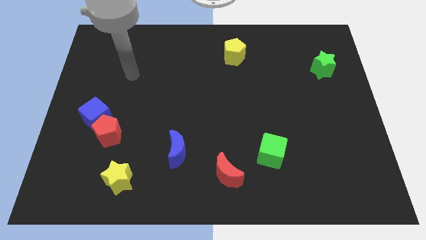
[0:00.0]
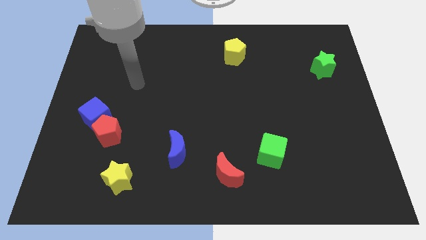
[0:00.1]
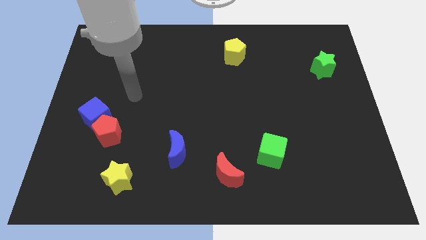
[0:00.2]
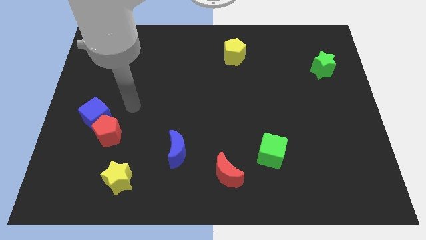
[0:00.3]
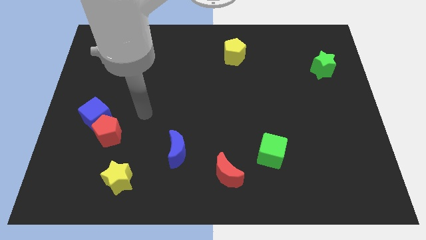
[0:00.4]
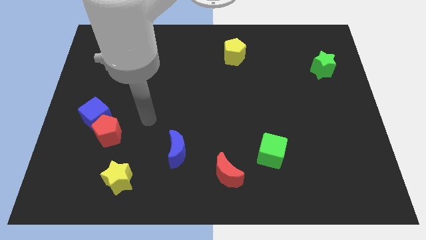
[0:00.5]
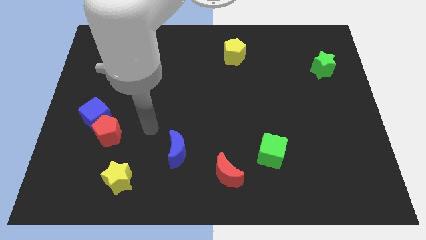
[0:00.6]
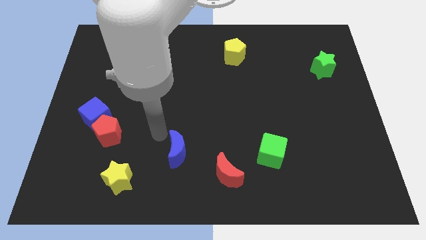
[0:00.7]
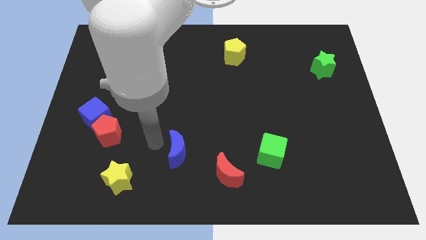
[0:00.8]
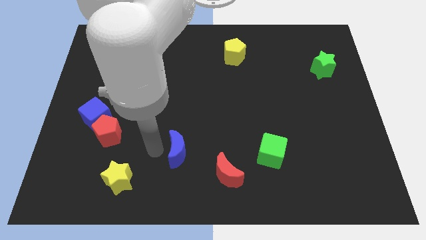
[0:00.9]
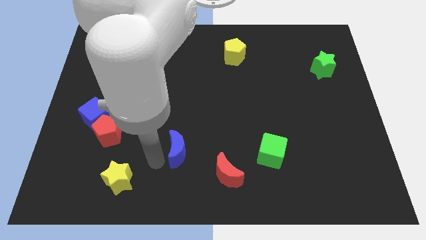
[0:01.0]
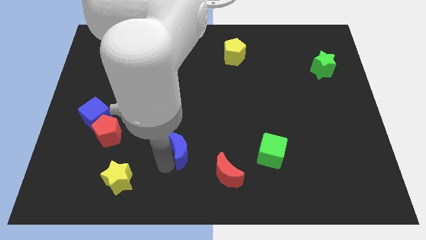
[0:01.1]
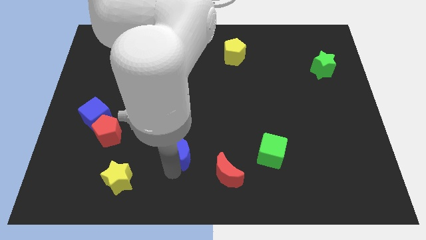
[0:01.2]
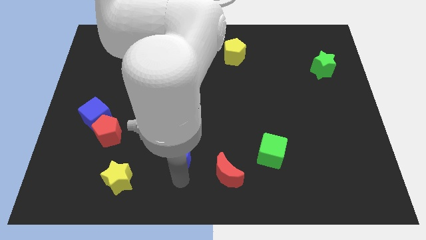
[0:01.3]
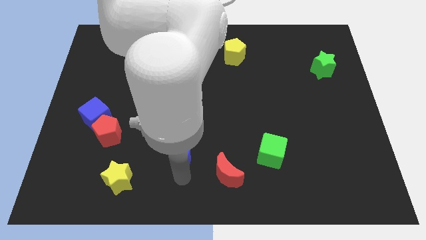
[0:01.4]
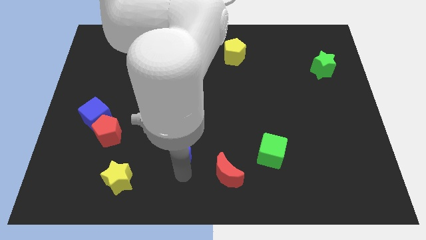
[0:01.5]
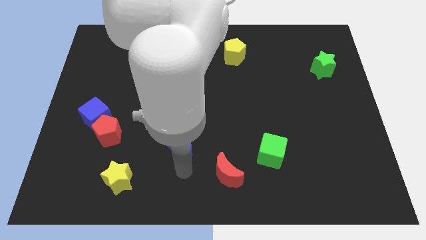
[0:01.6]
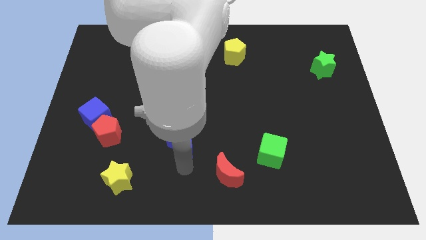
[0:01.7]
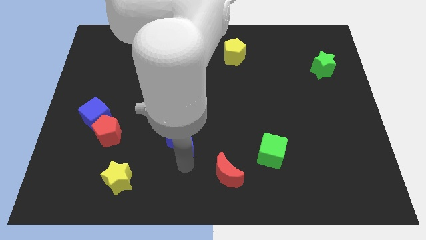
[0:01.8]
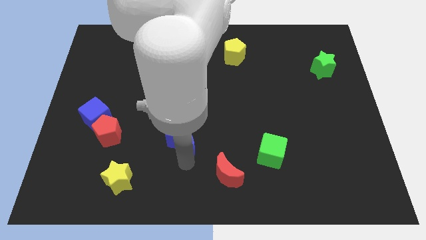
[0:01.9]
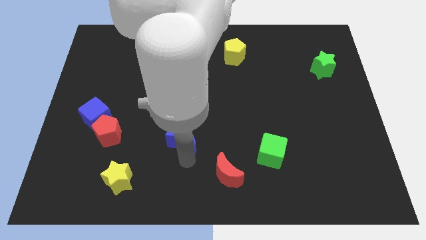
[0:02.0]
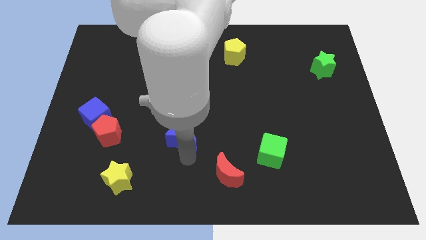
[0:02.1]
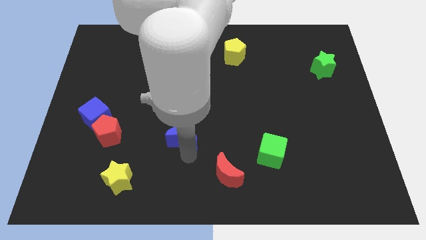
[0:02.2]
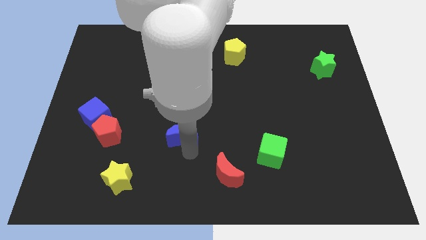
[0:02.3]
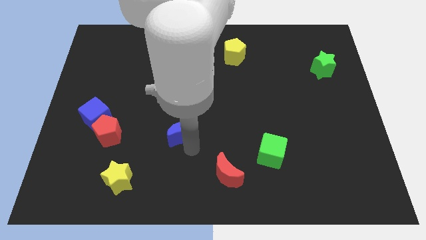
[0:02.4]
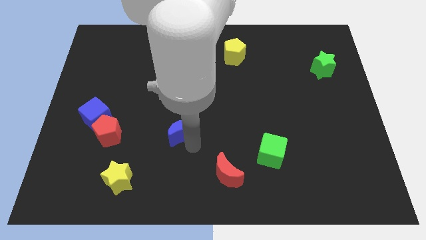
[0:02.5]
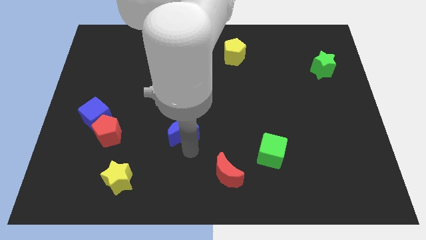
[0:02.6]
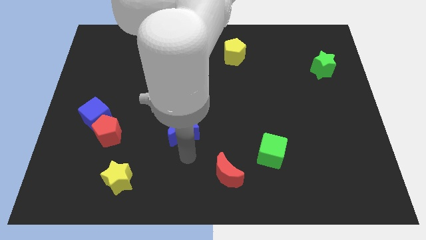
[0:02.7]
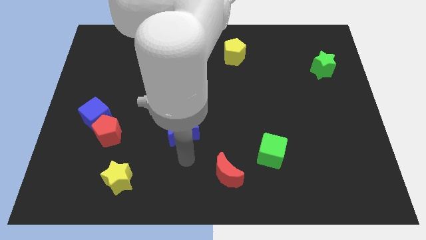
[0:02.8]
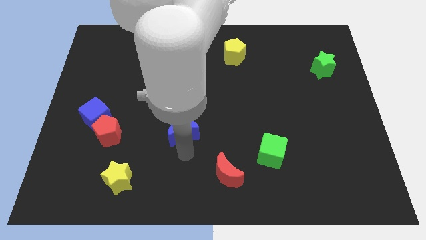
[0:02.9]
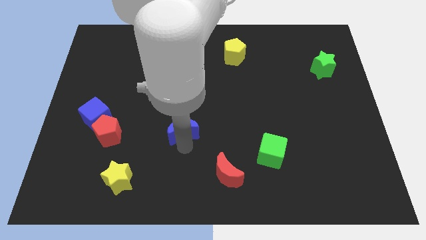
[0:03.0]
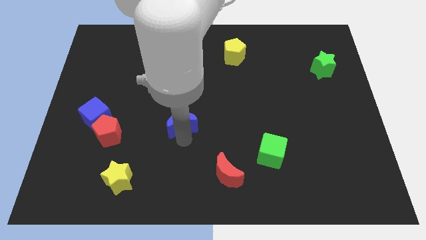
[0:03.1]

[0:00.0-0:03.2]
move the blue moon somewhat up

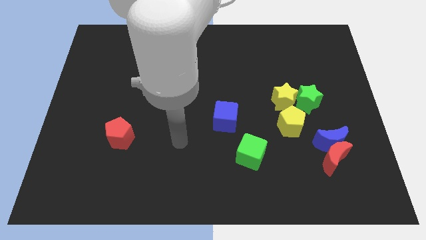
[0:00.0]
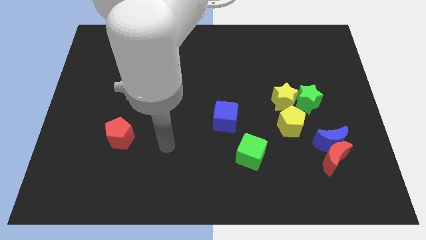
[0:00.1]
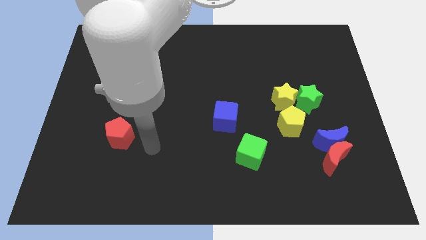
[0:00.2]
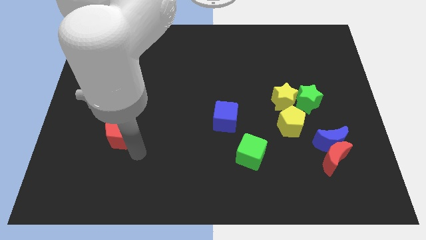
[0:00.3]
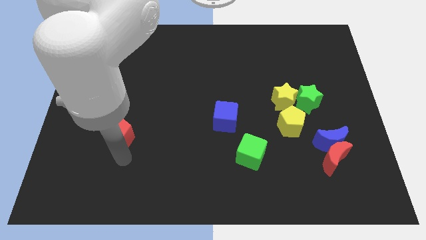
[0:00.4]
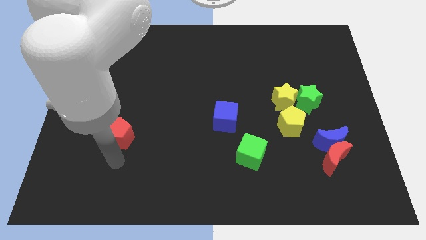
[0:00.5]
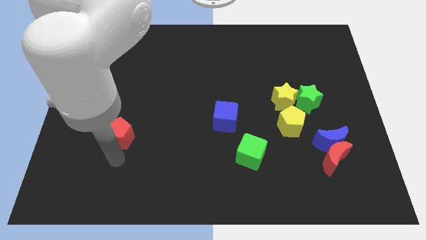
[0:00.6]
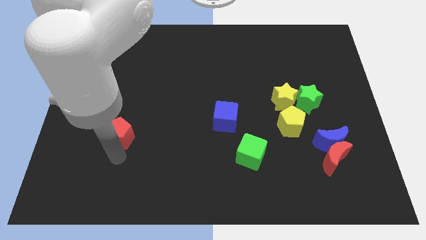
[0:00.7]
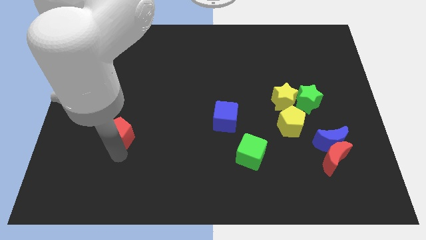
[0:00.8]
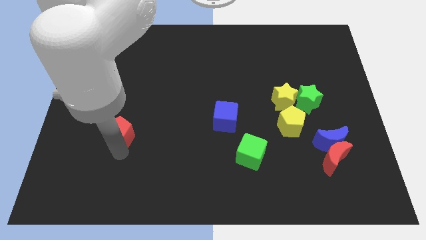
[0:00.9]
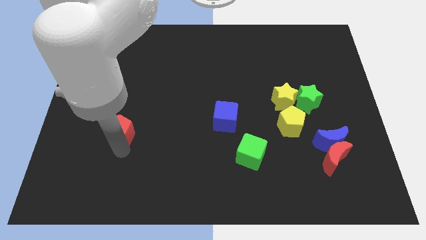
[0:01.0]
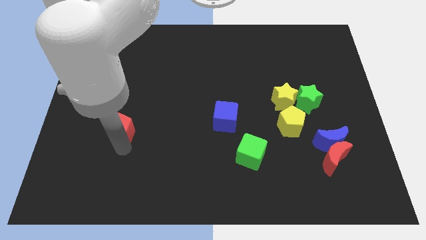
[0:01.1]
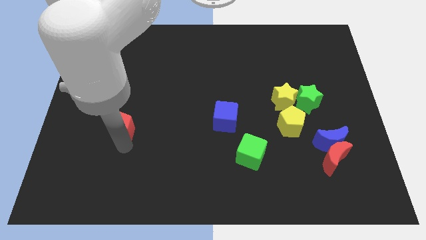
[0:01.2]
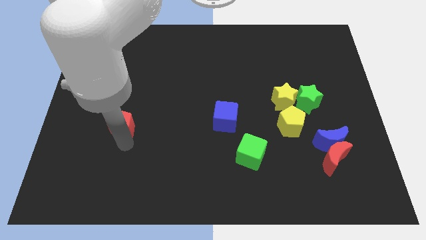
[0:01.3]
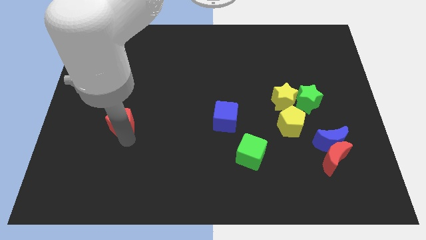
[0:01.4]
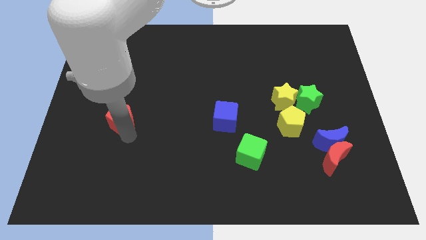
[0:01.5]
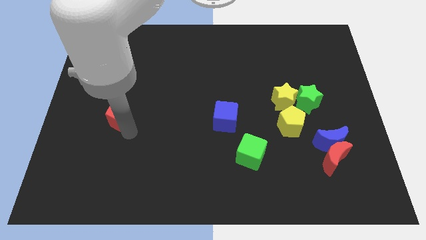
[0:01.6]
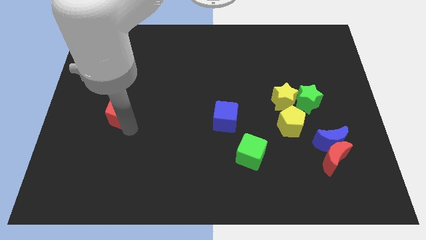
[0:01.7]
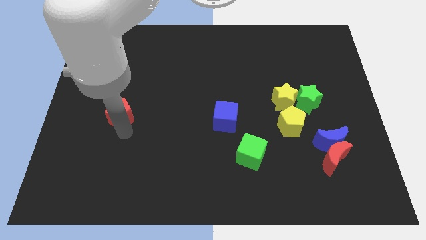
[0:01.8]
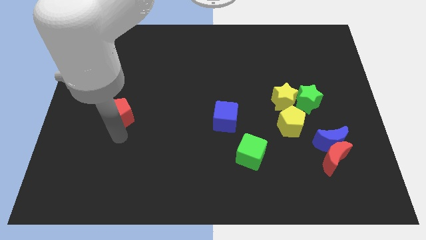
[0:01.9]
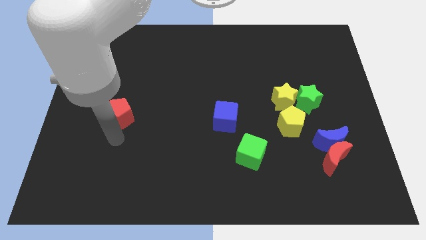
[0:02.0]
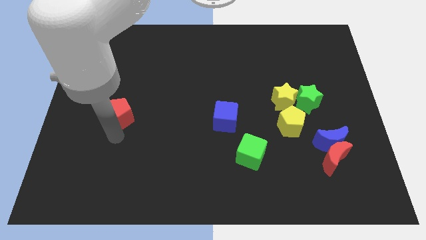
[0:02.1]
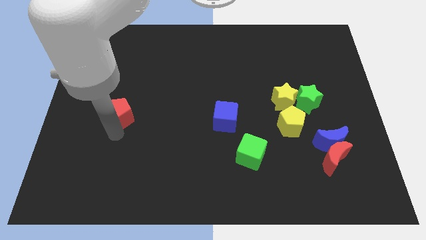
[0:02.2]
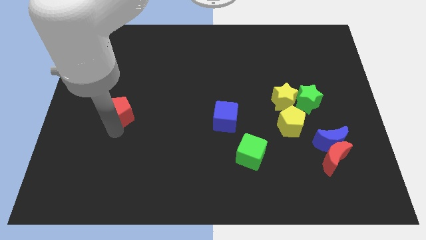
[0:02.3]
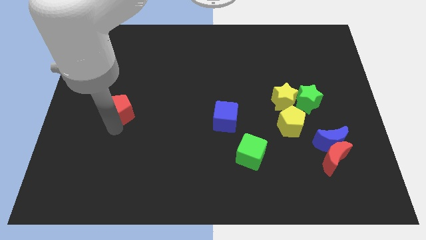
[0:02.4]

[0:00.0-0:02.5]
slightly move the red pentagon upwards

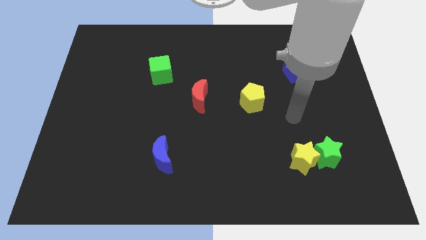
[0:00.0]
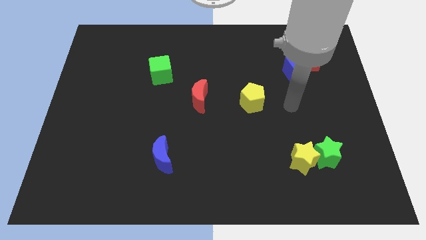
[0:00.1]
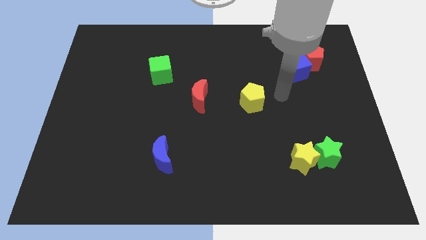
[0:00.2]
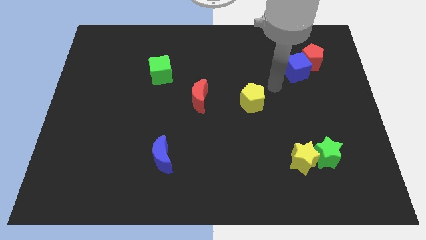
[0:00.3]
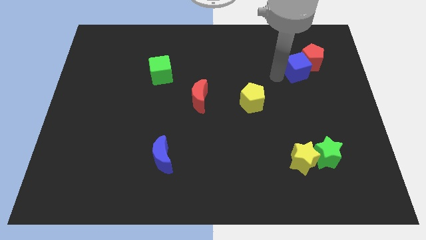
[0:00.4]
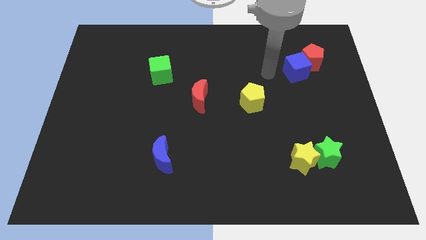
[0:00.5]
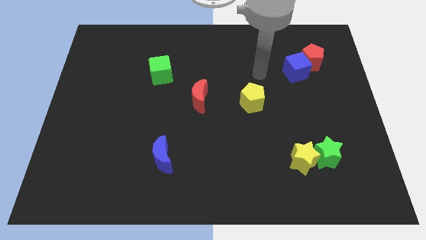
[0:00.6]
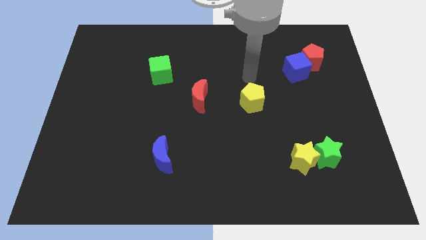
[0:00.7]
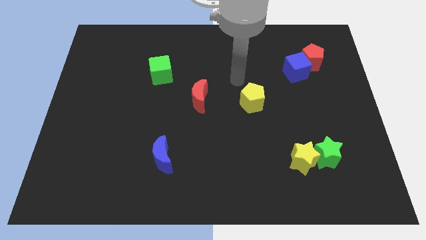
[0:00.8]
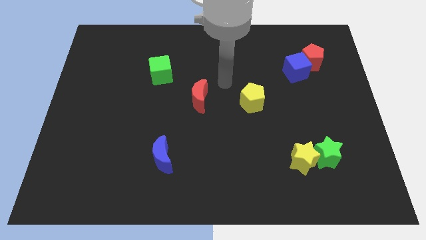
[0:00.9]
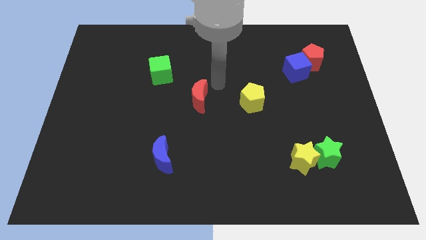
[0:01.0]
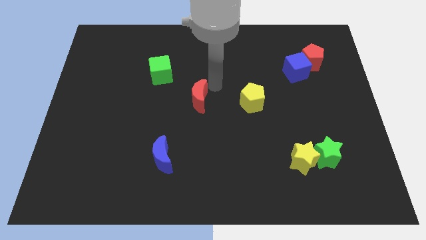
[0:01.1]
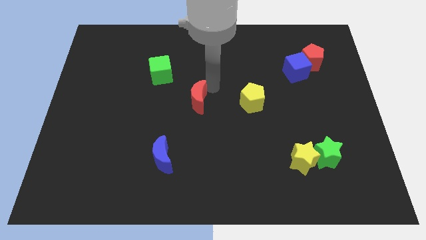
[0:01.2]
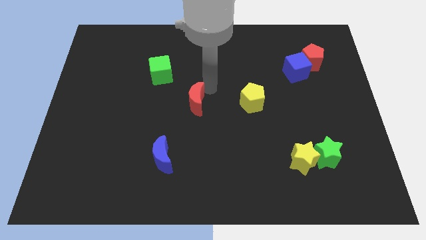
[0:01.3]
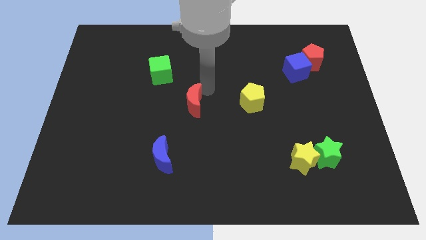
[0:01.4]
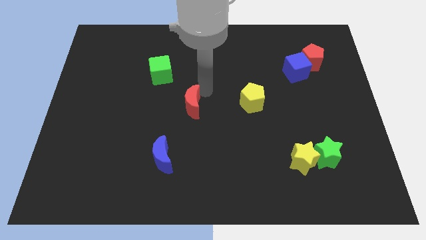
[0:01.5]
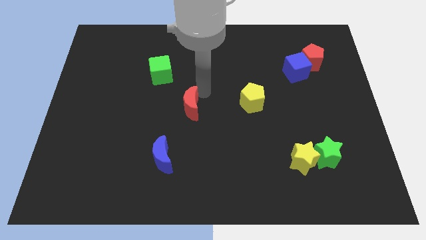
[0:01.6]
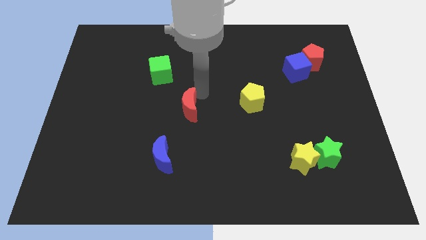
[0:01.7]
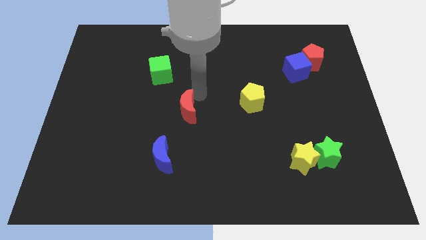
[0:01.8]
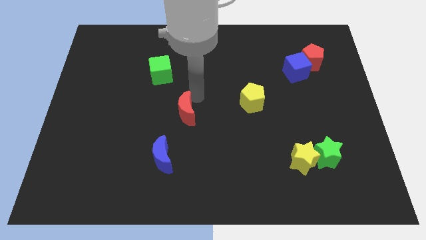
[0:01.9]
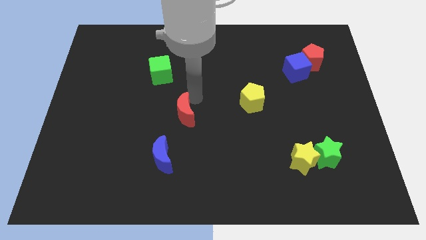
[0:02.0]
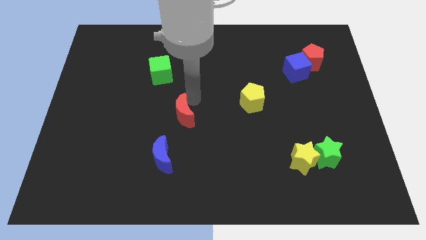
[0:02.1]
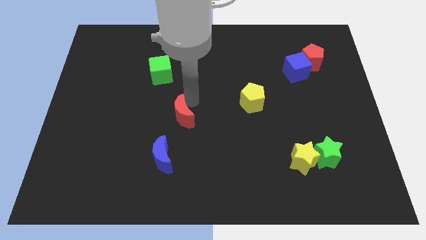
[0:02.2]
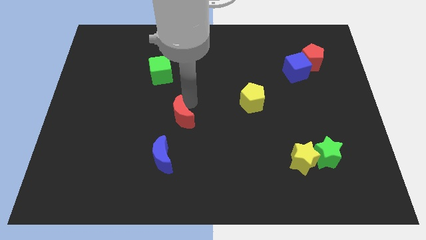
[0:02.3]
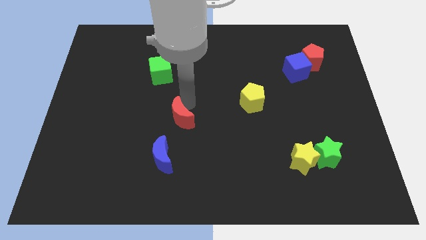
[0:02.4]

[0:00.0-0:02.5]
slightly push the red moon downwards and left
